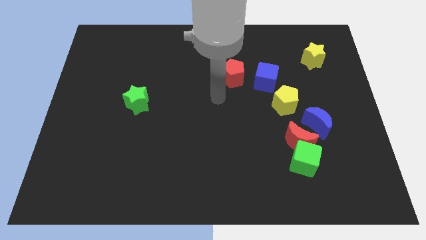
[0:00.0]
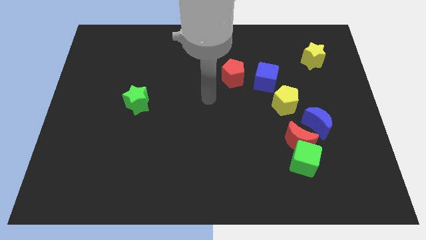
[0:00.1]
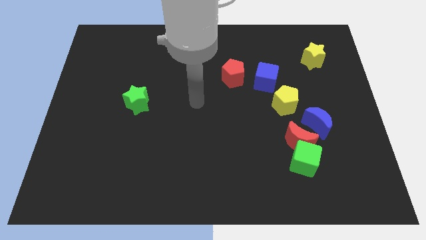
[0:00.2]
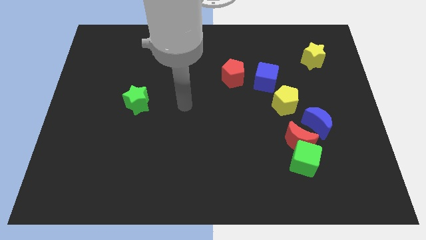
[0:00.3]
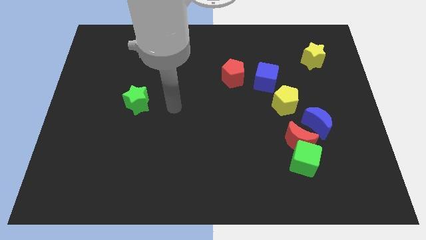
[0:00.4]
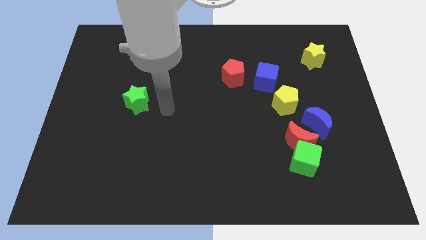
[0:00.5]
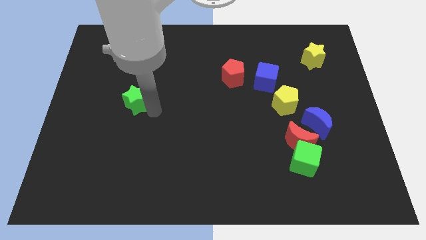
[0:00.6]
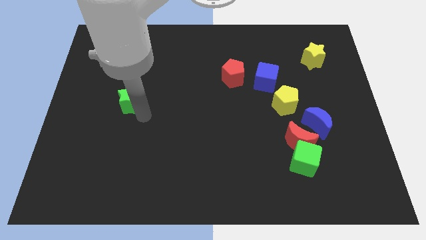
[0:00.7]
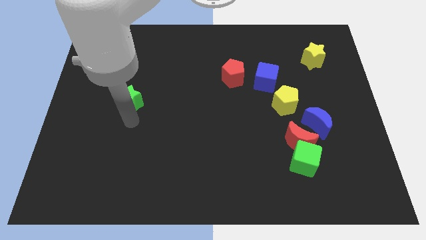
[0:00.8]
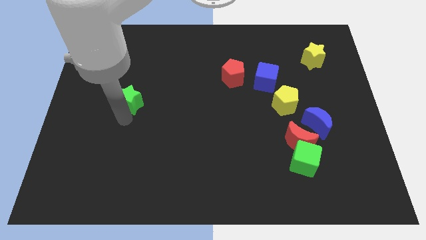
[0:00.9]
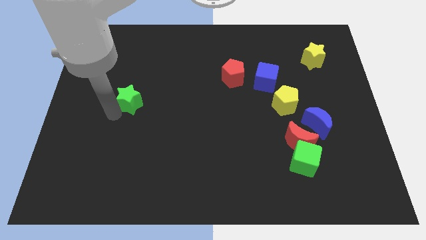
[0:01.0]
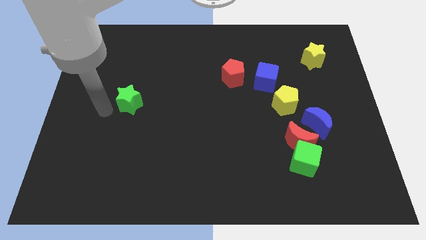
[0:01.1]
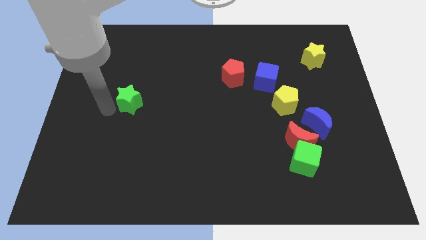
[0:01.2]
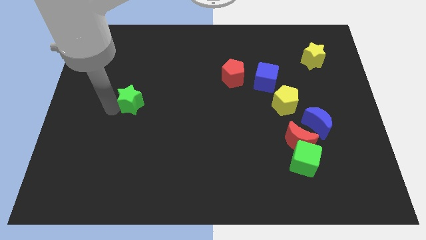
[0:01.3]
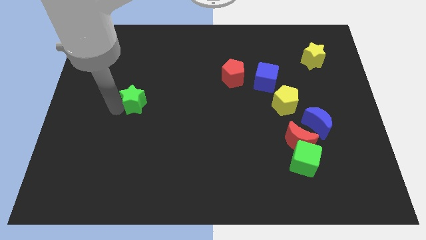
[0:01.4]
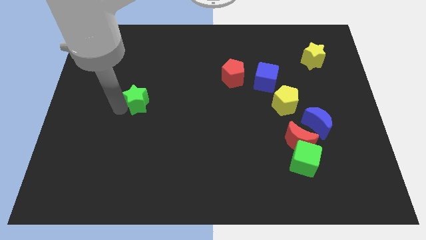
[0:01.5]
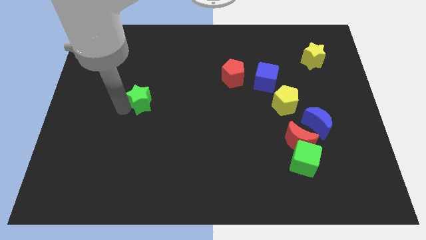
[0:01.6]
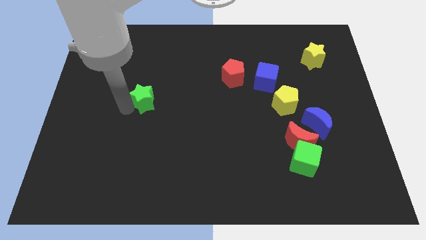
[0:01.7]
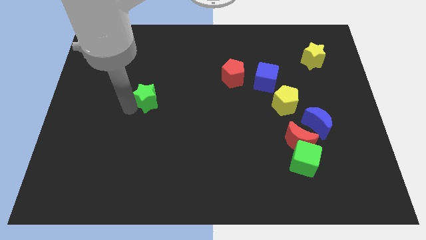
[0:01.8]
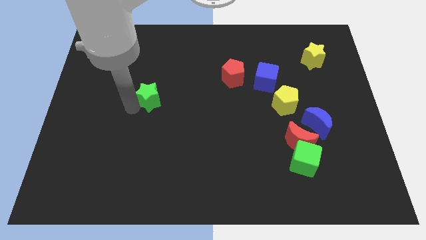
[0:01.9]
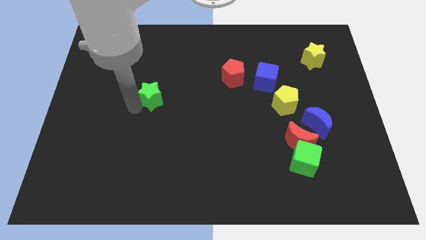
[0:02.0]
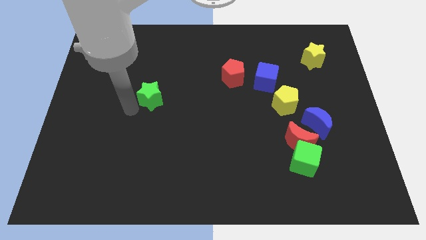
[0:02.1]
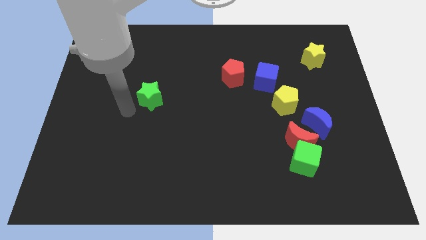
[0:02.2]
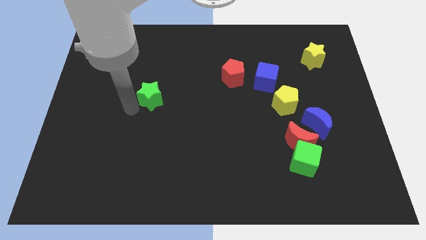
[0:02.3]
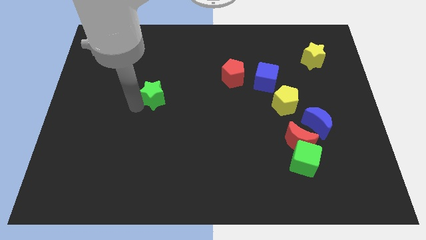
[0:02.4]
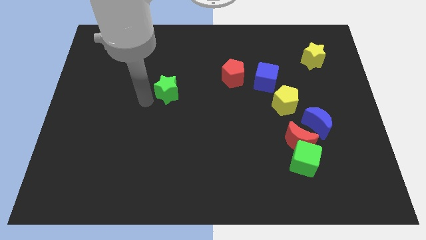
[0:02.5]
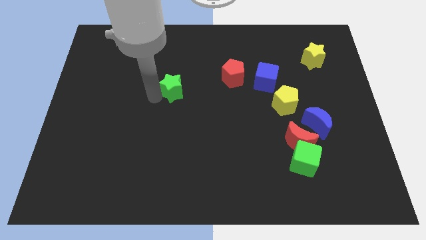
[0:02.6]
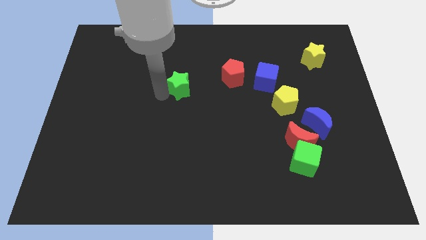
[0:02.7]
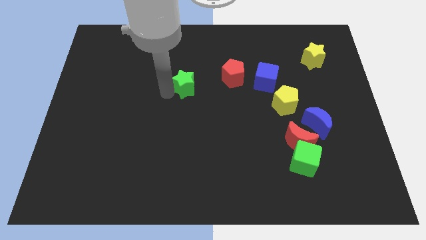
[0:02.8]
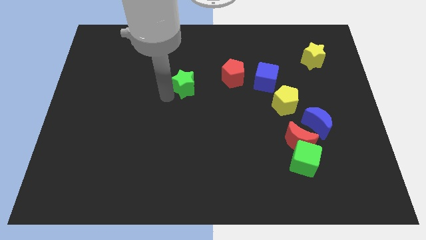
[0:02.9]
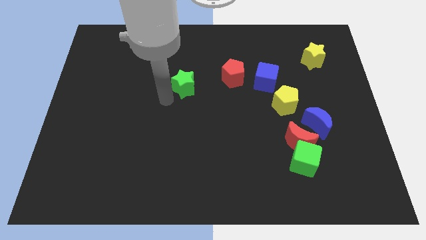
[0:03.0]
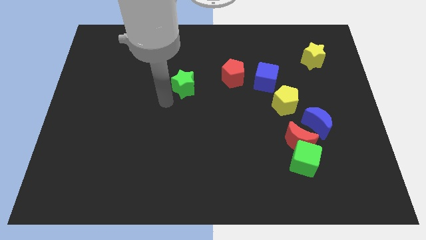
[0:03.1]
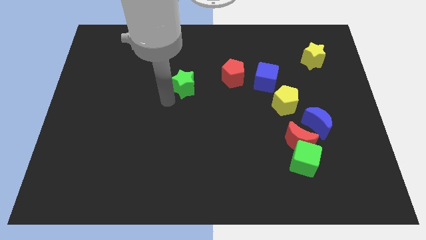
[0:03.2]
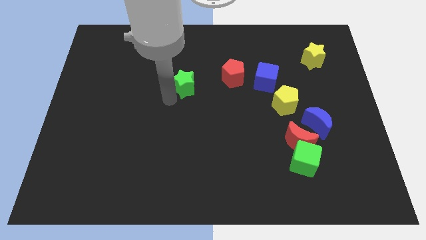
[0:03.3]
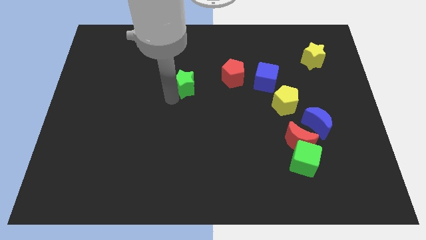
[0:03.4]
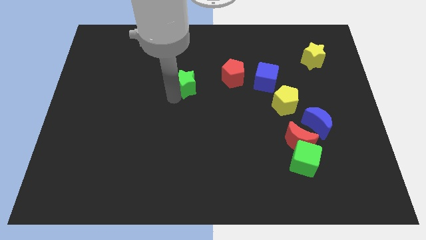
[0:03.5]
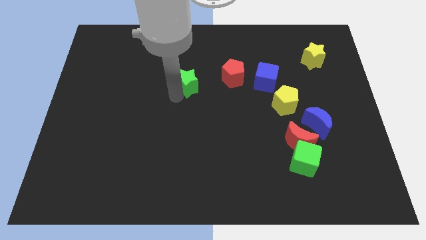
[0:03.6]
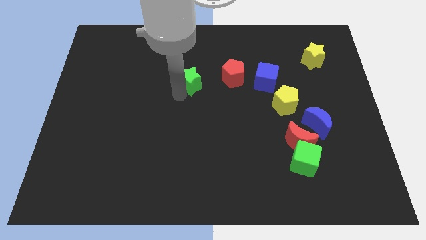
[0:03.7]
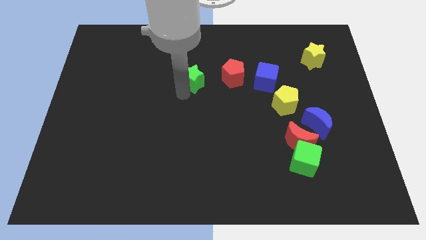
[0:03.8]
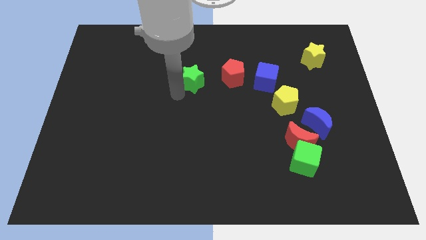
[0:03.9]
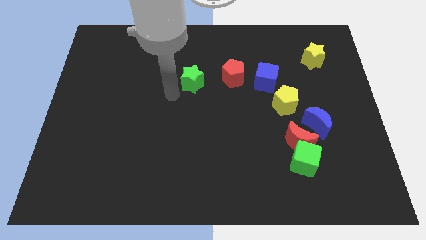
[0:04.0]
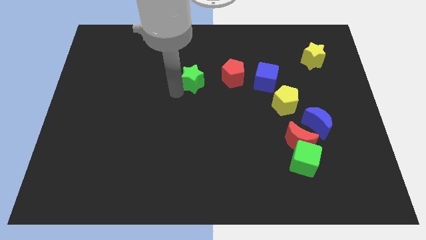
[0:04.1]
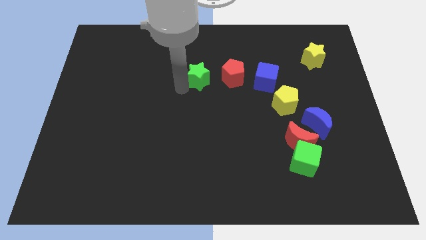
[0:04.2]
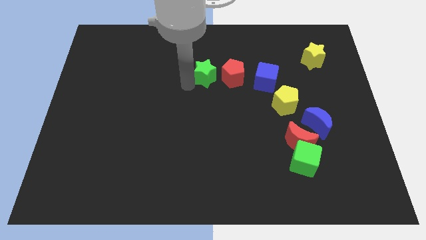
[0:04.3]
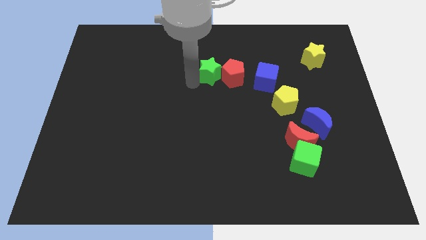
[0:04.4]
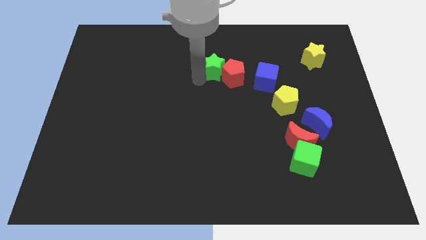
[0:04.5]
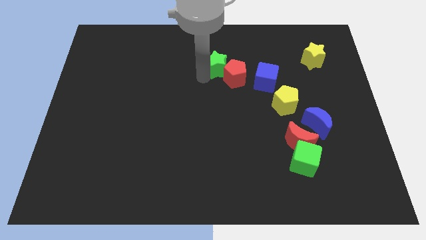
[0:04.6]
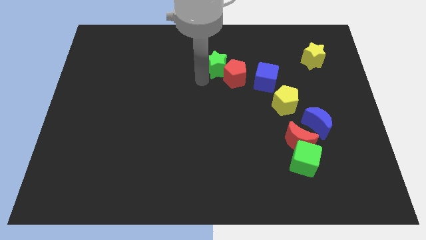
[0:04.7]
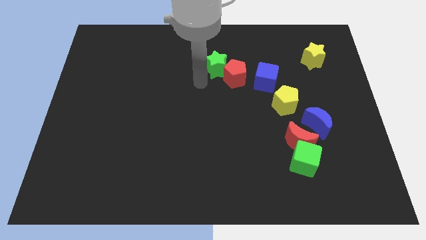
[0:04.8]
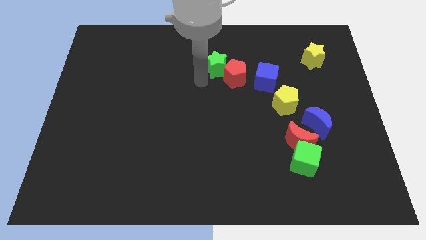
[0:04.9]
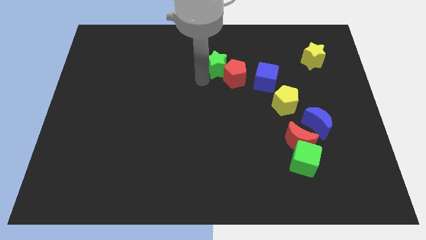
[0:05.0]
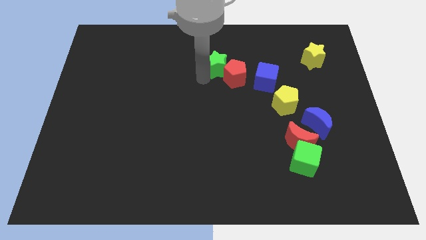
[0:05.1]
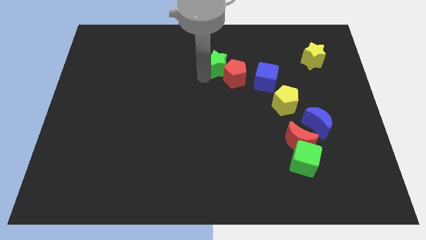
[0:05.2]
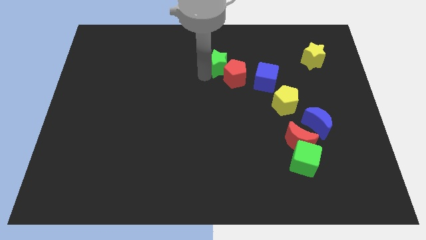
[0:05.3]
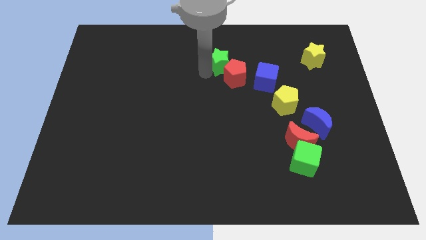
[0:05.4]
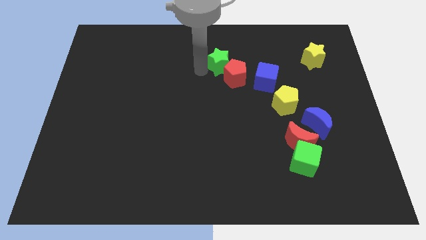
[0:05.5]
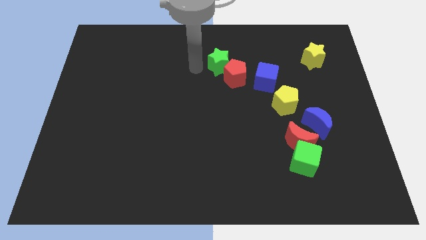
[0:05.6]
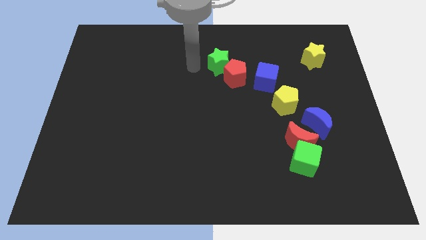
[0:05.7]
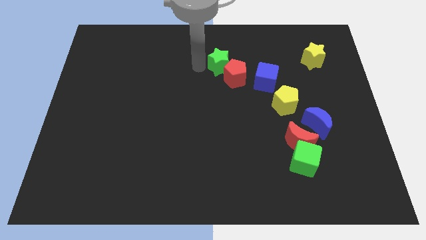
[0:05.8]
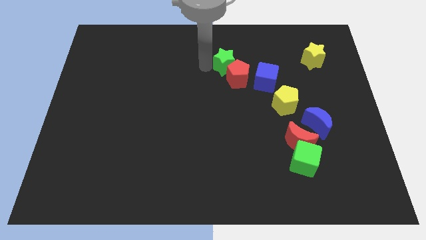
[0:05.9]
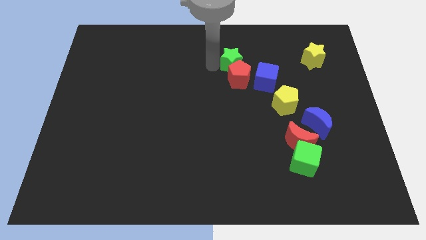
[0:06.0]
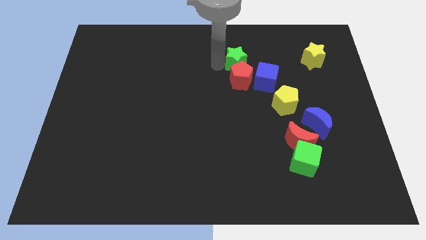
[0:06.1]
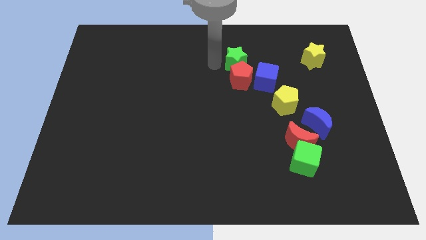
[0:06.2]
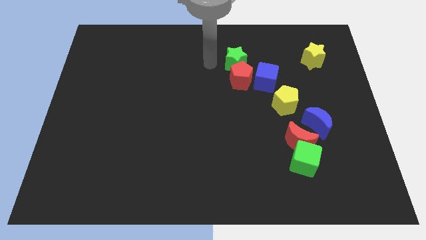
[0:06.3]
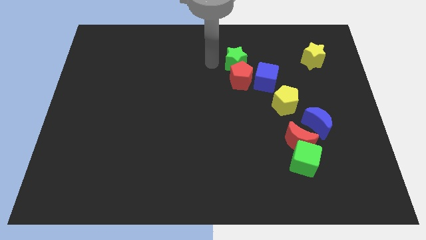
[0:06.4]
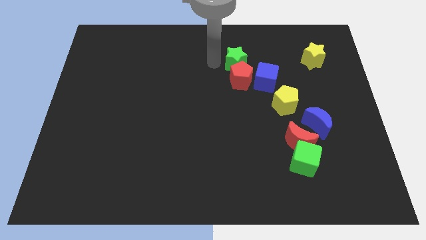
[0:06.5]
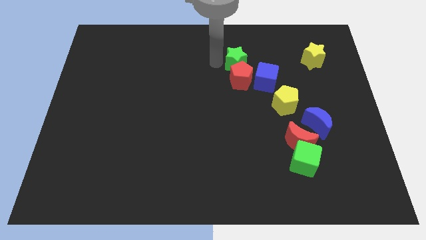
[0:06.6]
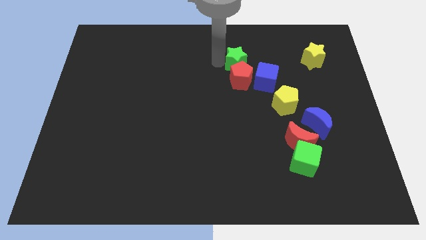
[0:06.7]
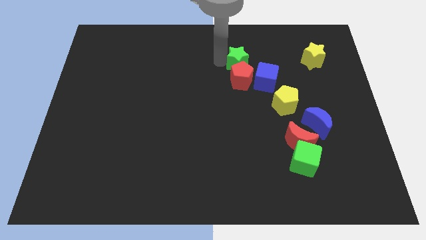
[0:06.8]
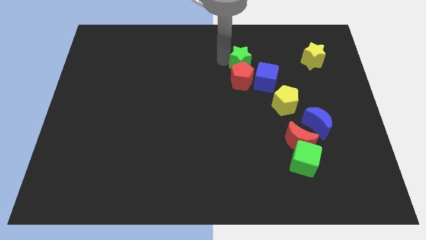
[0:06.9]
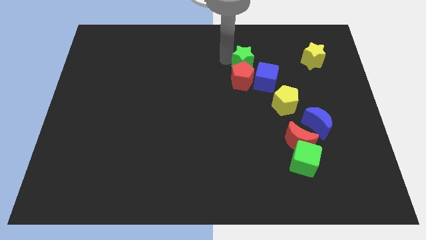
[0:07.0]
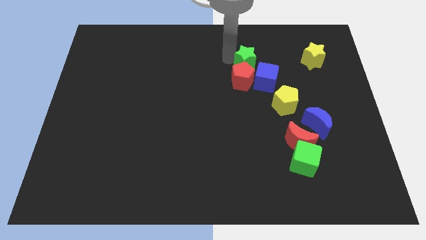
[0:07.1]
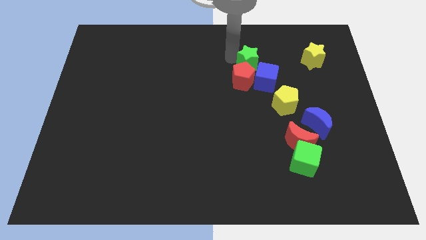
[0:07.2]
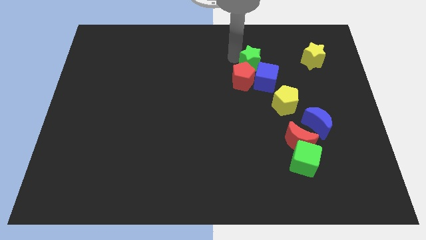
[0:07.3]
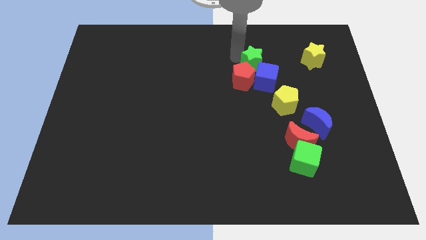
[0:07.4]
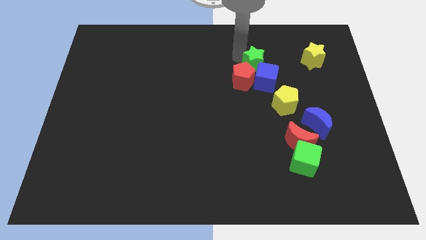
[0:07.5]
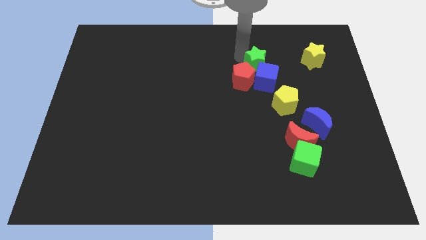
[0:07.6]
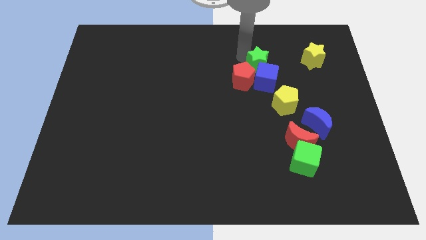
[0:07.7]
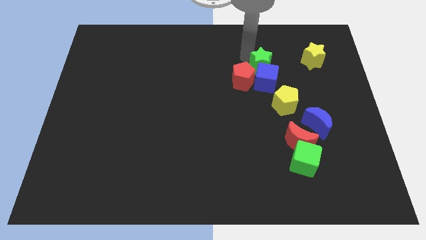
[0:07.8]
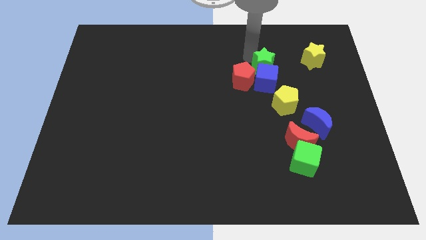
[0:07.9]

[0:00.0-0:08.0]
move the green star to the right of the red pentagon
